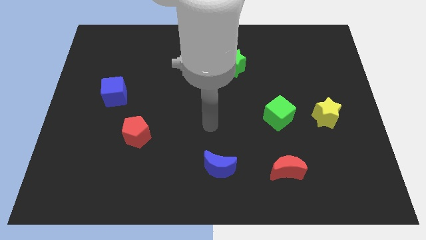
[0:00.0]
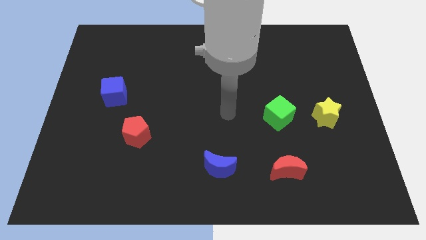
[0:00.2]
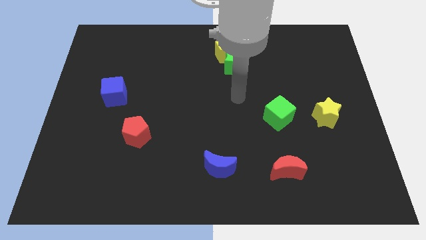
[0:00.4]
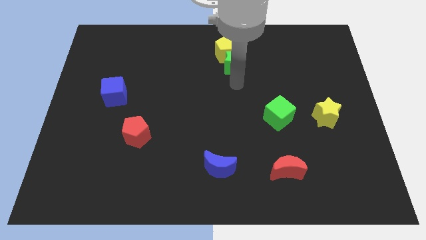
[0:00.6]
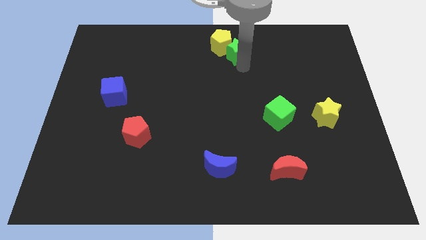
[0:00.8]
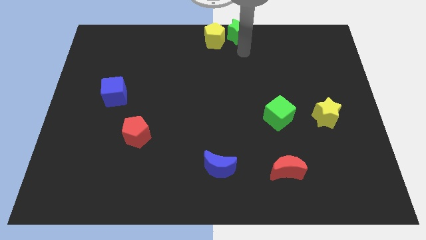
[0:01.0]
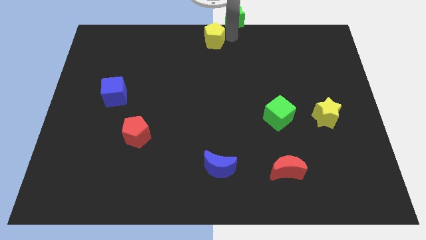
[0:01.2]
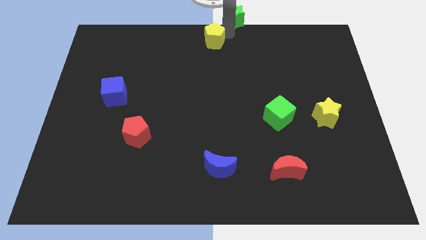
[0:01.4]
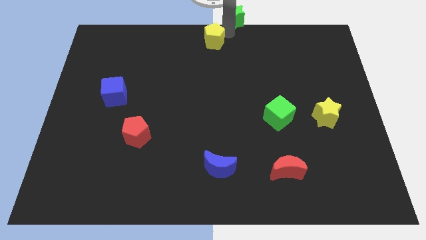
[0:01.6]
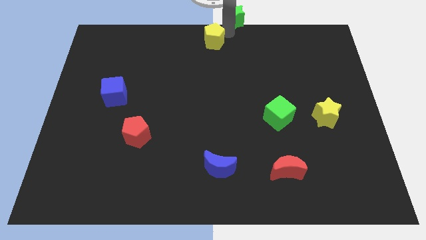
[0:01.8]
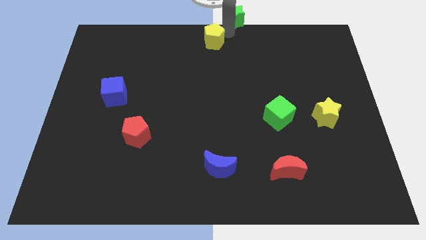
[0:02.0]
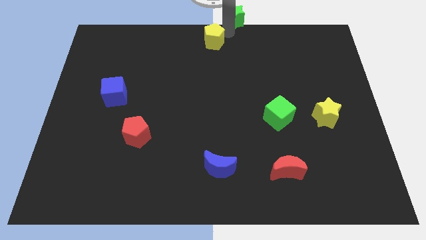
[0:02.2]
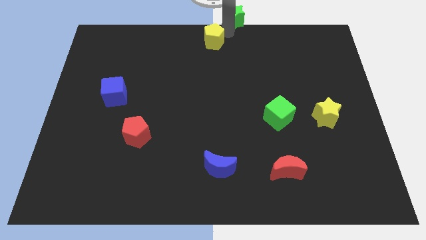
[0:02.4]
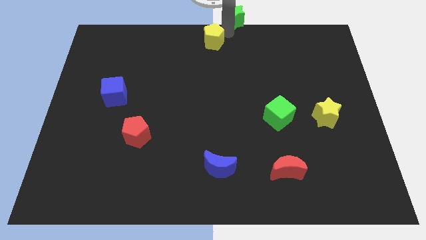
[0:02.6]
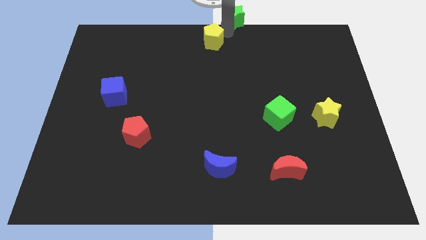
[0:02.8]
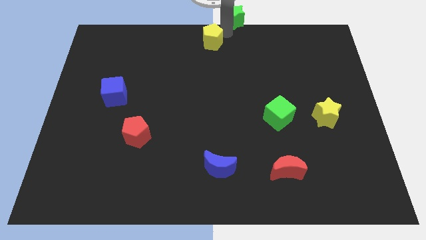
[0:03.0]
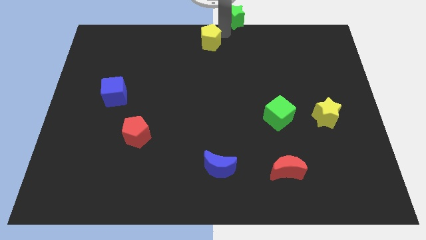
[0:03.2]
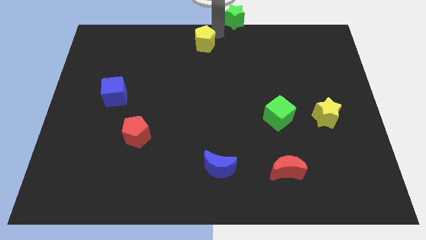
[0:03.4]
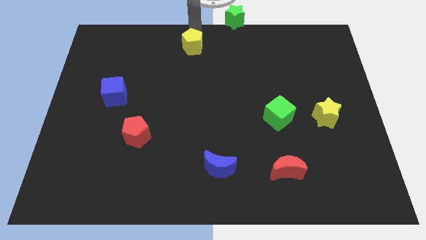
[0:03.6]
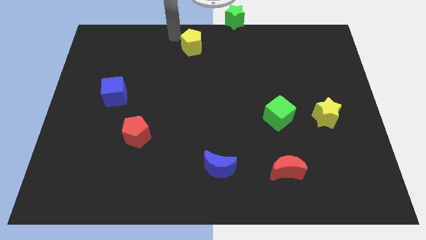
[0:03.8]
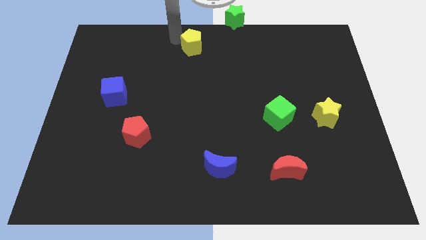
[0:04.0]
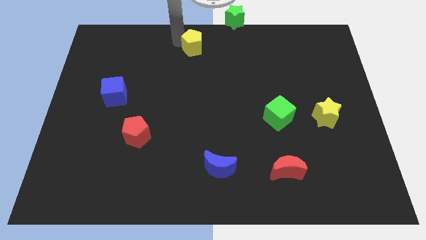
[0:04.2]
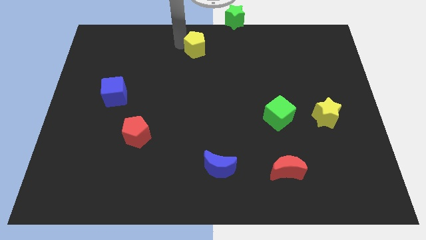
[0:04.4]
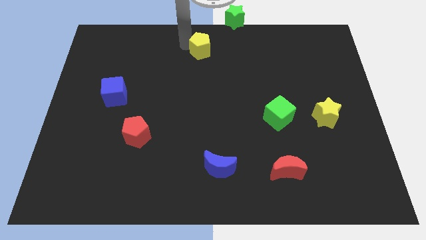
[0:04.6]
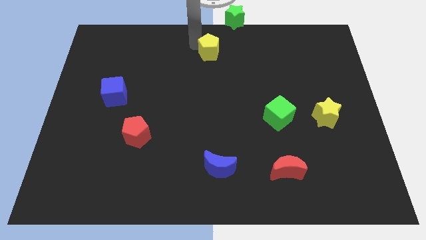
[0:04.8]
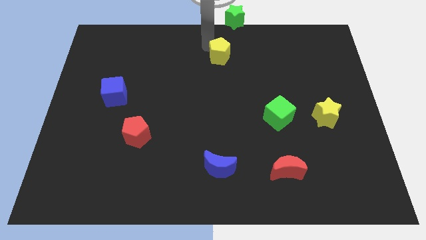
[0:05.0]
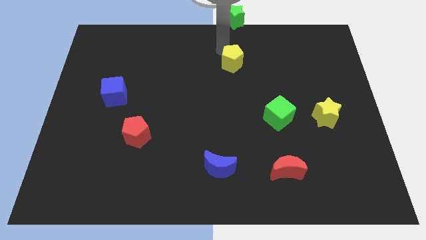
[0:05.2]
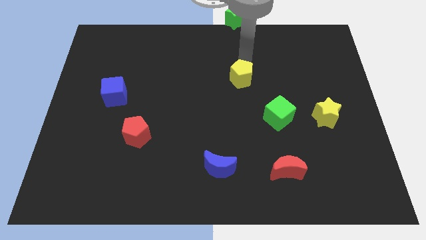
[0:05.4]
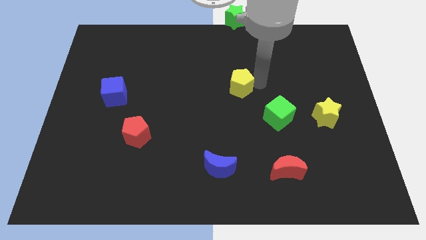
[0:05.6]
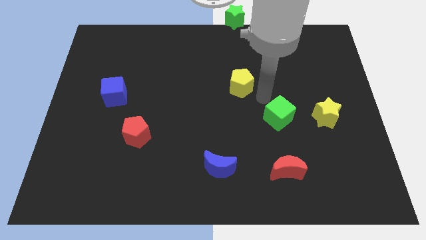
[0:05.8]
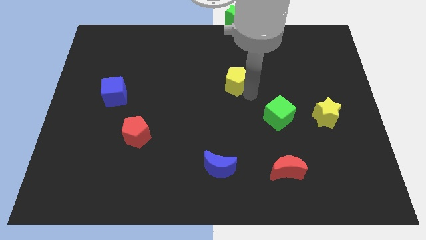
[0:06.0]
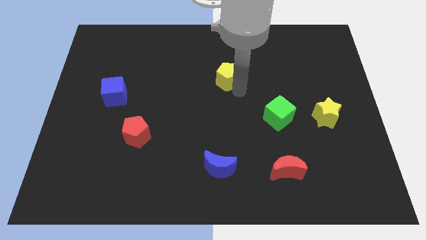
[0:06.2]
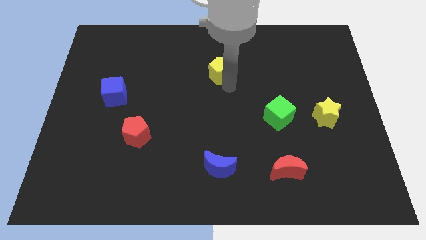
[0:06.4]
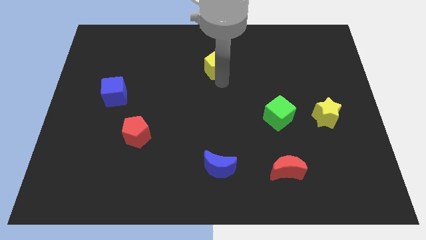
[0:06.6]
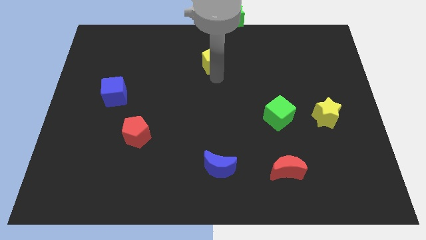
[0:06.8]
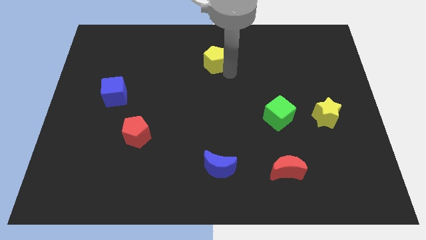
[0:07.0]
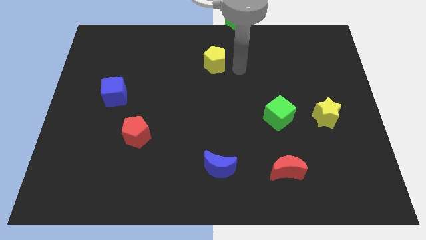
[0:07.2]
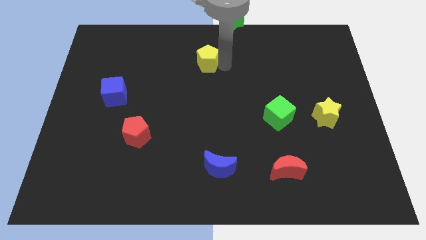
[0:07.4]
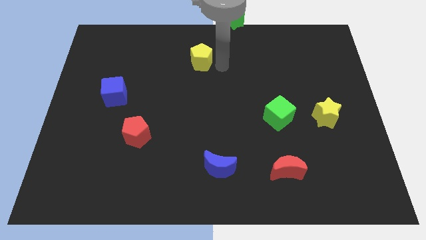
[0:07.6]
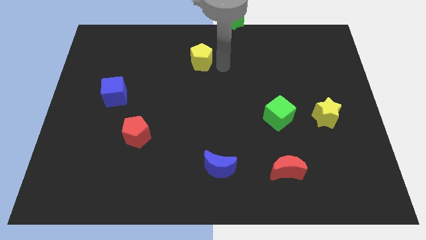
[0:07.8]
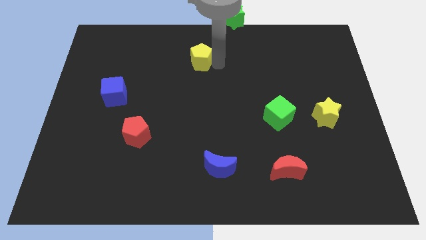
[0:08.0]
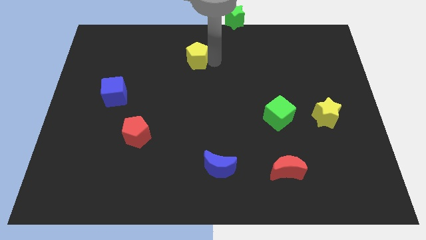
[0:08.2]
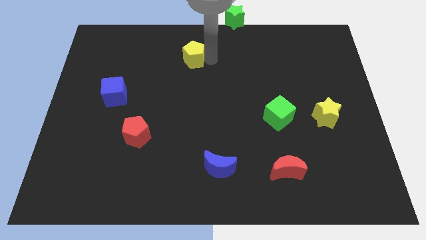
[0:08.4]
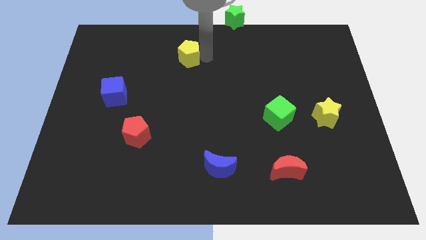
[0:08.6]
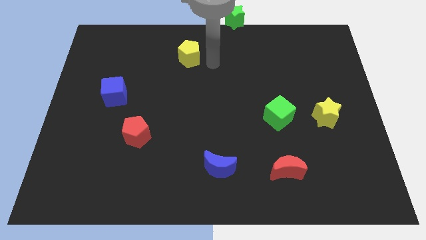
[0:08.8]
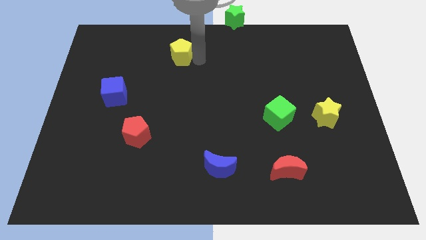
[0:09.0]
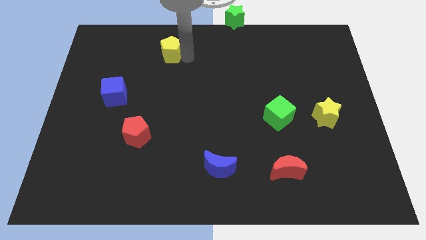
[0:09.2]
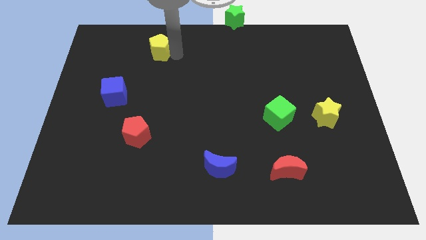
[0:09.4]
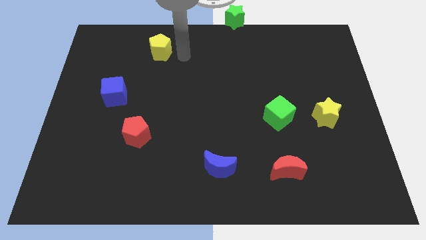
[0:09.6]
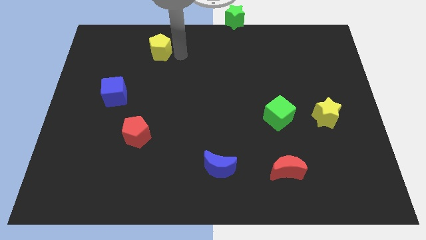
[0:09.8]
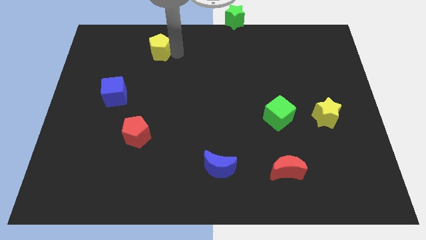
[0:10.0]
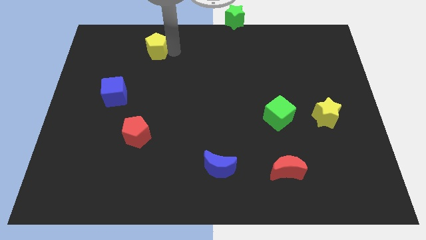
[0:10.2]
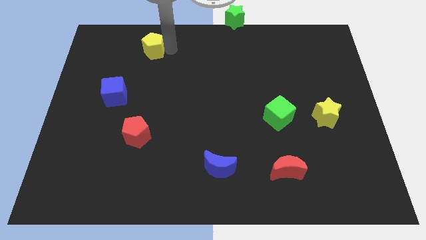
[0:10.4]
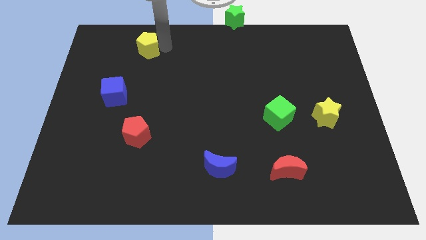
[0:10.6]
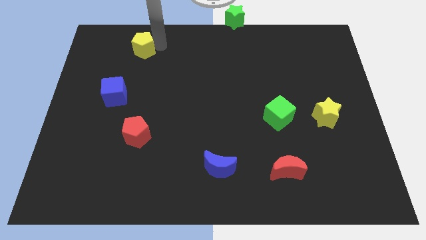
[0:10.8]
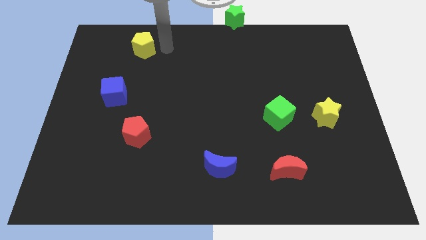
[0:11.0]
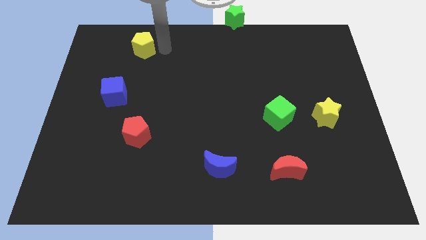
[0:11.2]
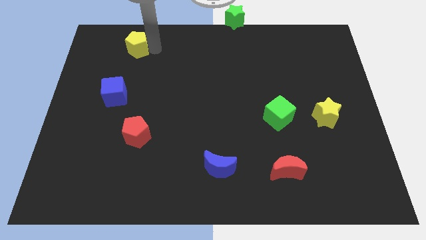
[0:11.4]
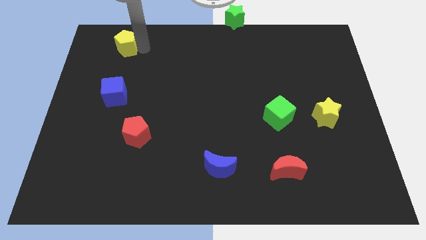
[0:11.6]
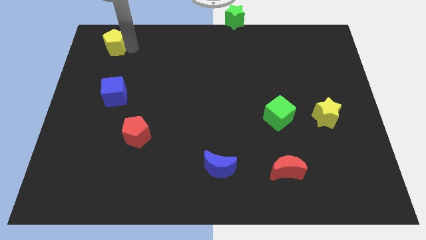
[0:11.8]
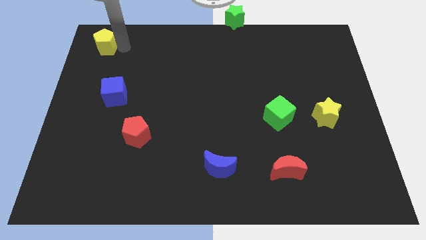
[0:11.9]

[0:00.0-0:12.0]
move the yellow pentagon to the top left corner
